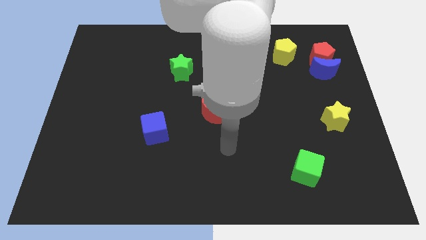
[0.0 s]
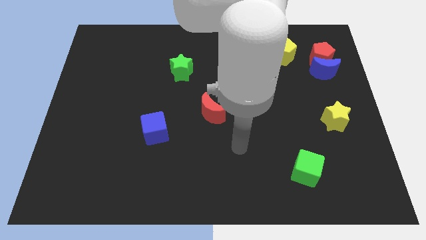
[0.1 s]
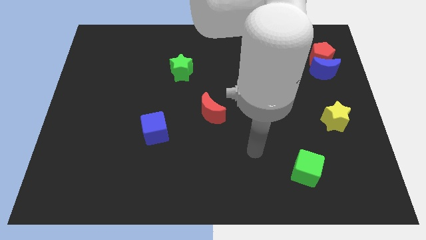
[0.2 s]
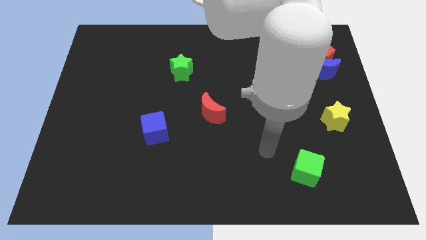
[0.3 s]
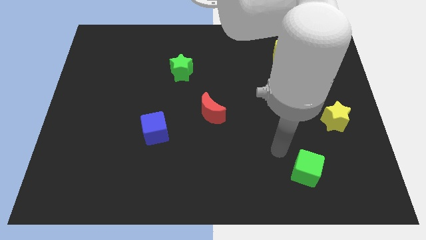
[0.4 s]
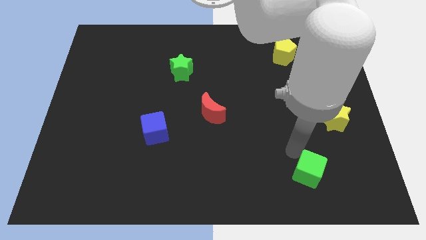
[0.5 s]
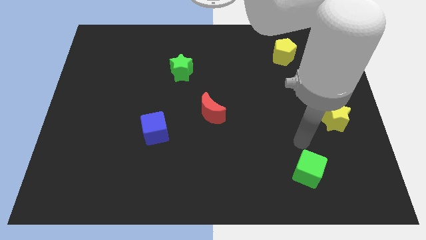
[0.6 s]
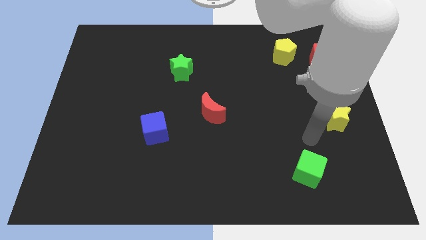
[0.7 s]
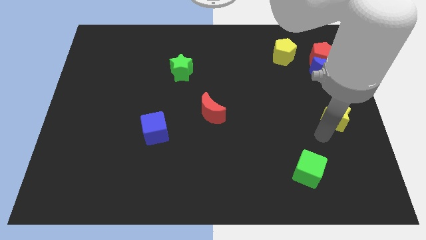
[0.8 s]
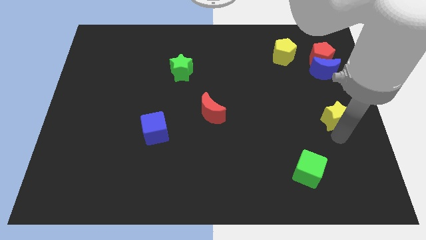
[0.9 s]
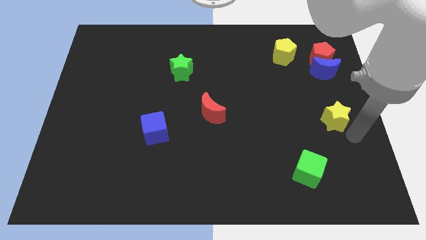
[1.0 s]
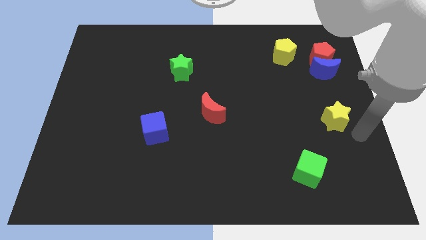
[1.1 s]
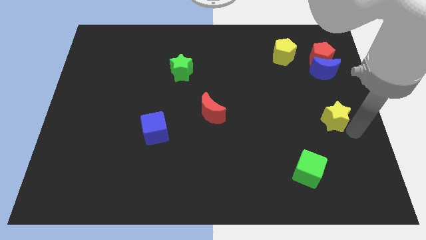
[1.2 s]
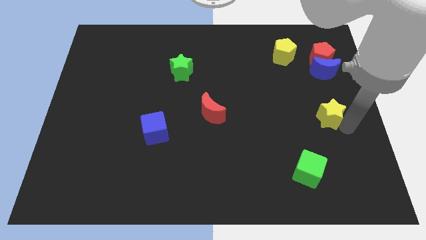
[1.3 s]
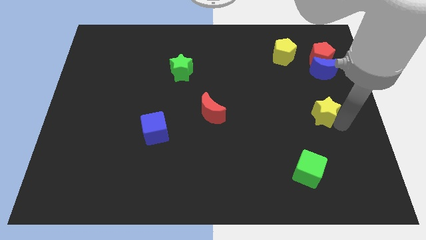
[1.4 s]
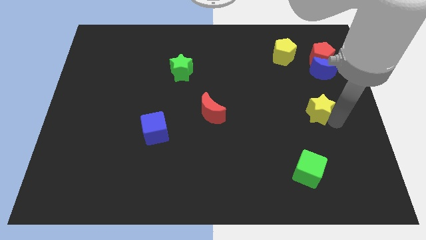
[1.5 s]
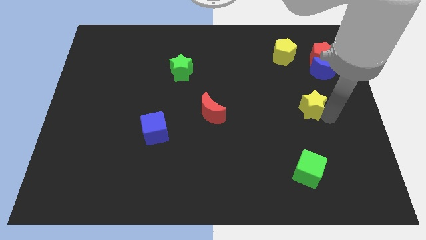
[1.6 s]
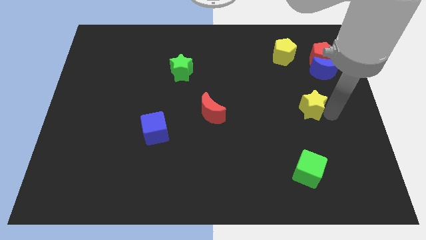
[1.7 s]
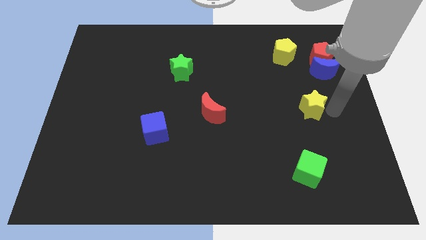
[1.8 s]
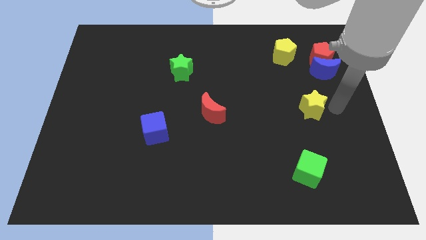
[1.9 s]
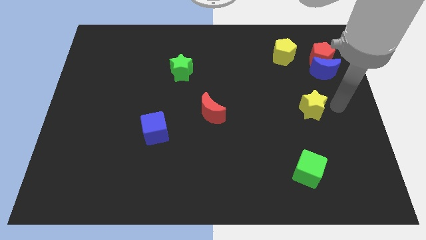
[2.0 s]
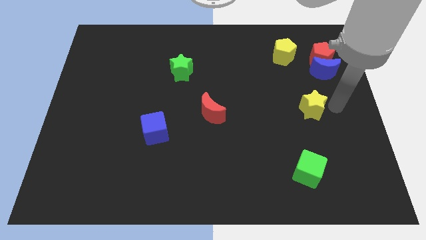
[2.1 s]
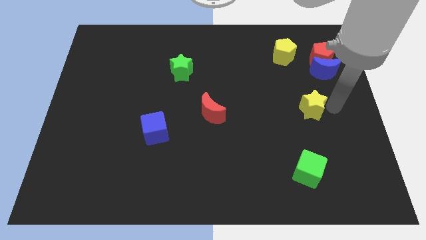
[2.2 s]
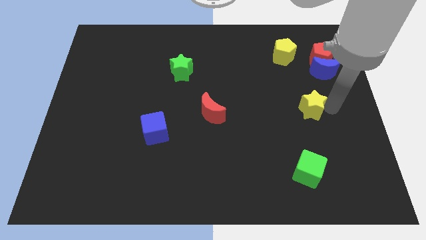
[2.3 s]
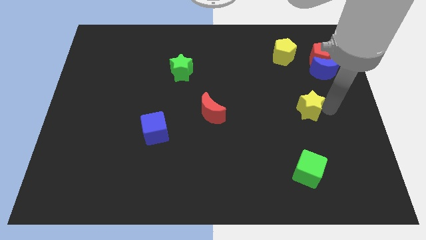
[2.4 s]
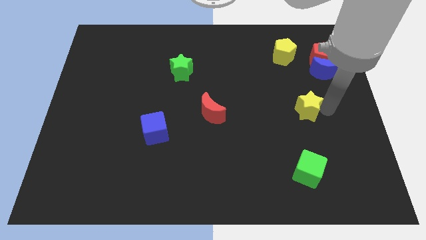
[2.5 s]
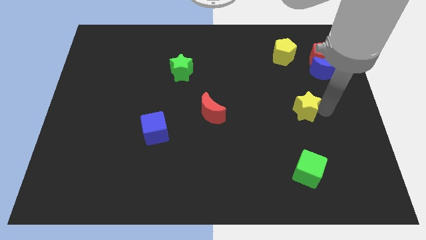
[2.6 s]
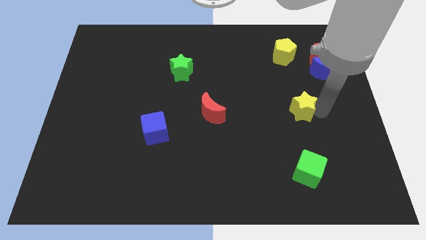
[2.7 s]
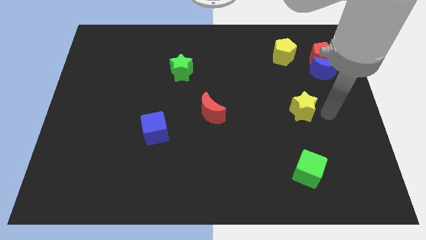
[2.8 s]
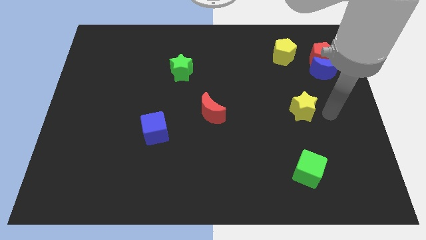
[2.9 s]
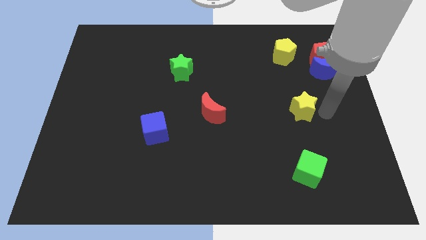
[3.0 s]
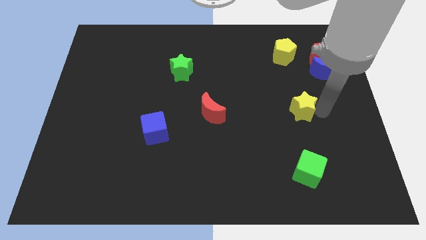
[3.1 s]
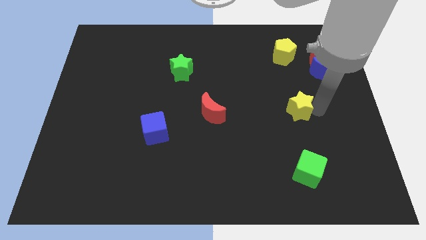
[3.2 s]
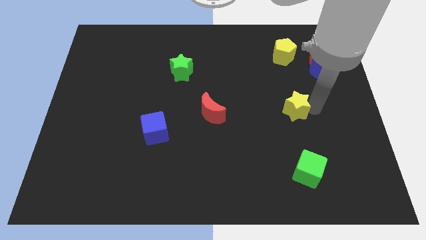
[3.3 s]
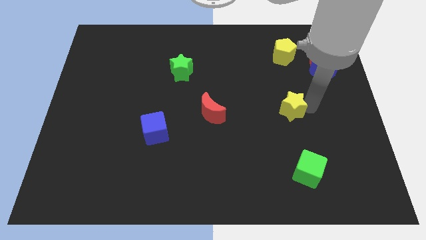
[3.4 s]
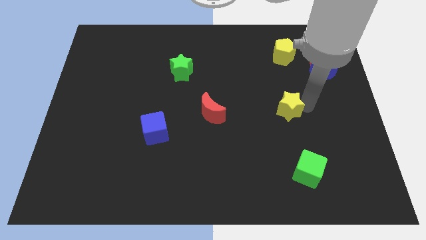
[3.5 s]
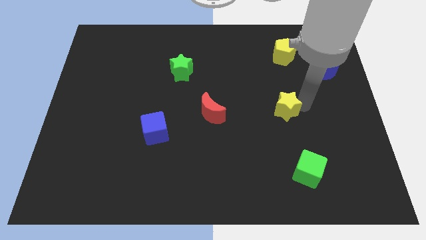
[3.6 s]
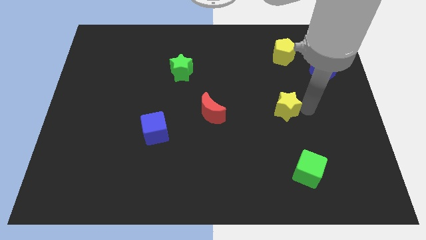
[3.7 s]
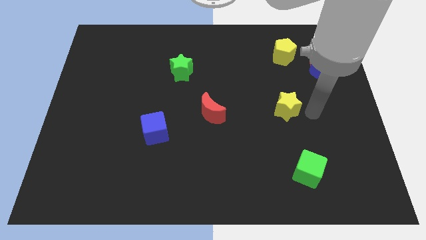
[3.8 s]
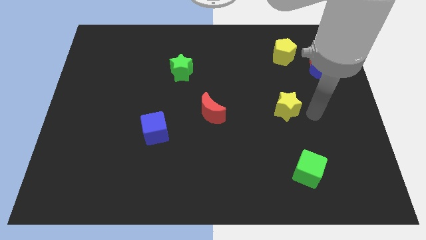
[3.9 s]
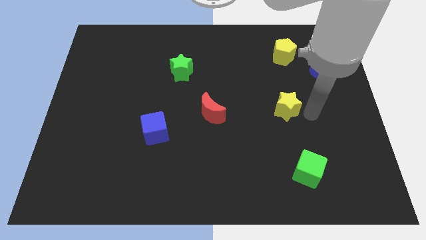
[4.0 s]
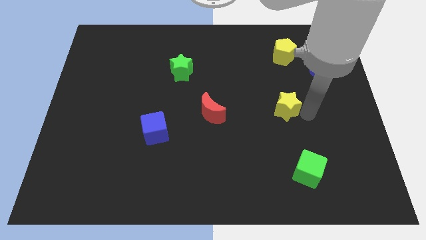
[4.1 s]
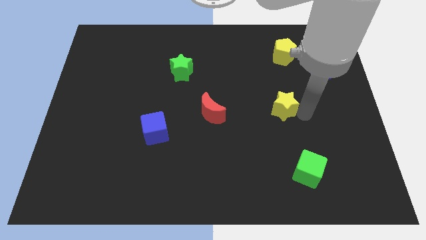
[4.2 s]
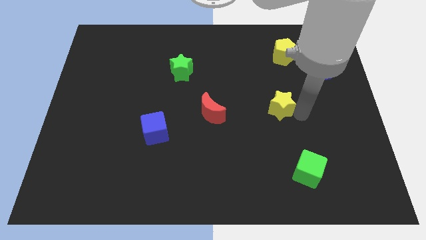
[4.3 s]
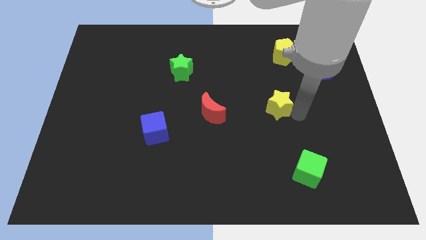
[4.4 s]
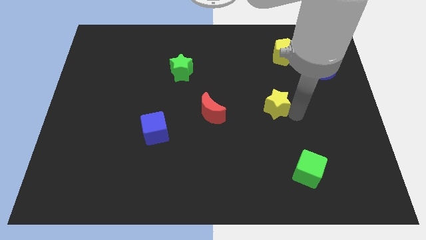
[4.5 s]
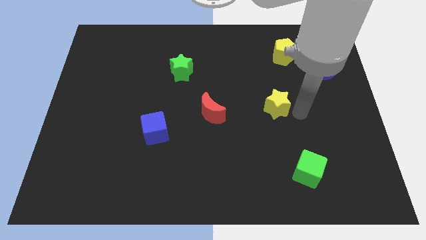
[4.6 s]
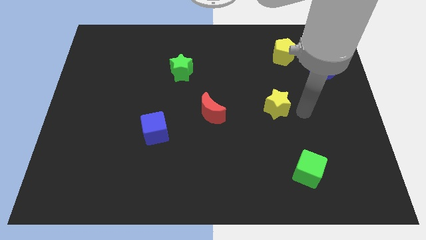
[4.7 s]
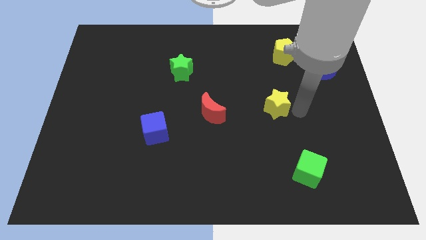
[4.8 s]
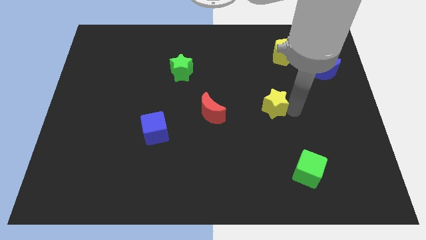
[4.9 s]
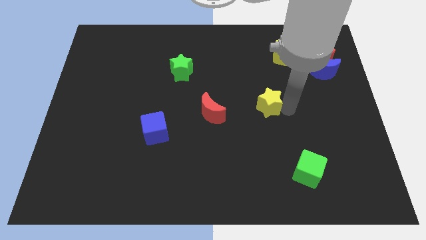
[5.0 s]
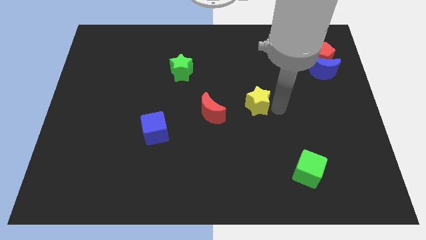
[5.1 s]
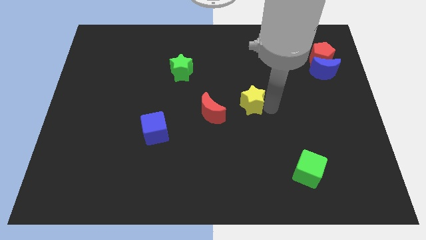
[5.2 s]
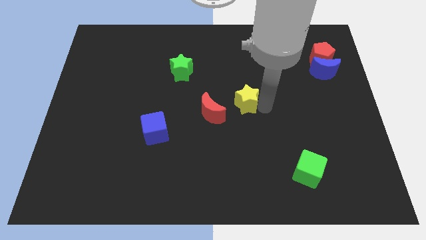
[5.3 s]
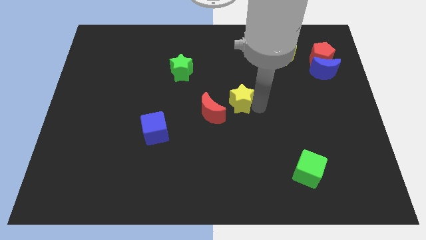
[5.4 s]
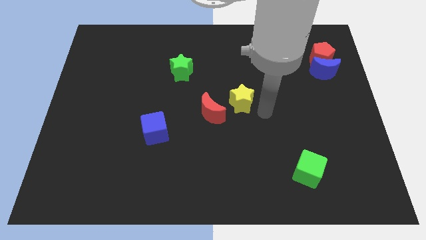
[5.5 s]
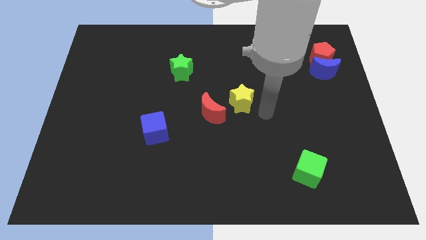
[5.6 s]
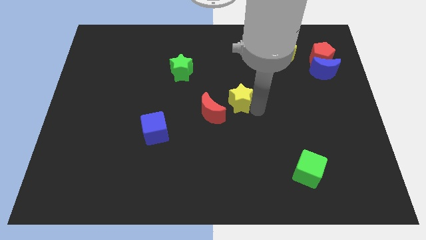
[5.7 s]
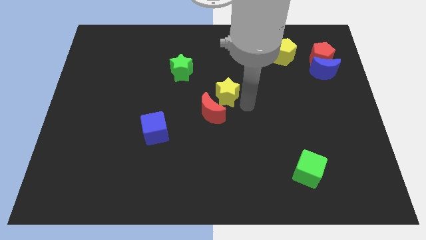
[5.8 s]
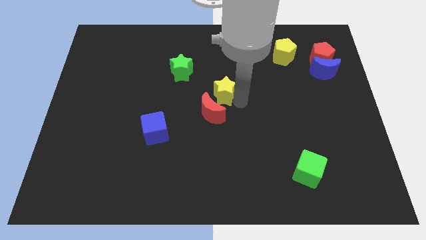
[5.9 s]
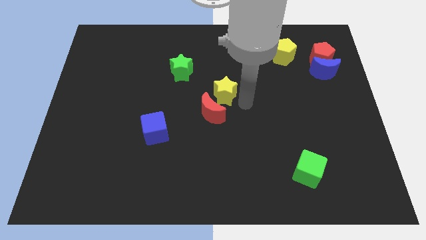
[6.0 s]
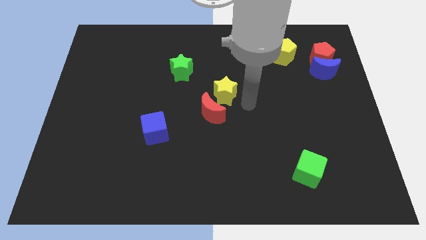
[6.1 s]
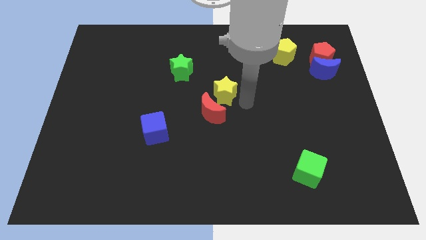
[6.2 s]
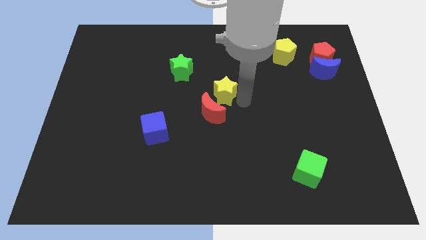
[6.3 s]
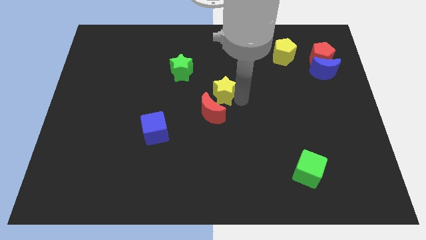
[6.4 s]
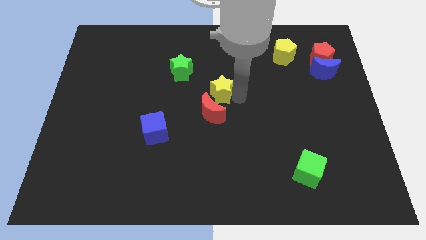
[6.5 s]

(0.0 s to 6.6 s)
push the yellow star diagonally down and to the right of the green star

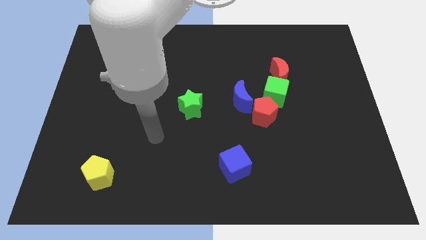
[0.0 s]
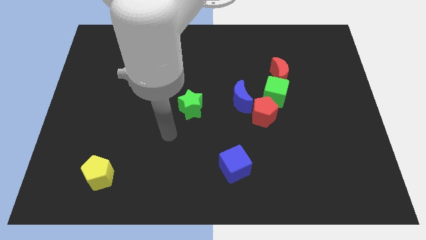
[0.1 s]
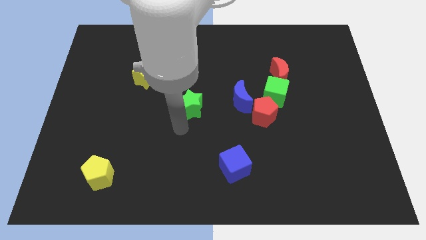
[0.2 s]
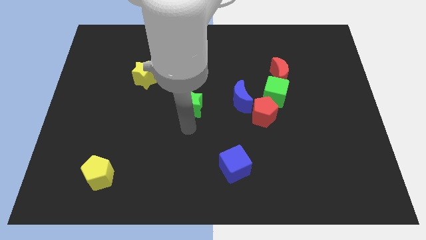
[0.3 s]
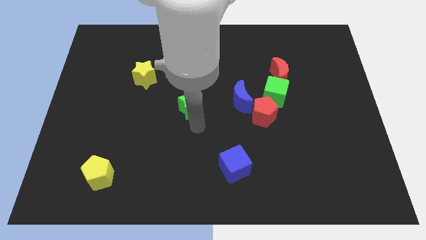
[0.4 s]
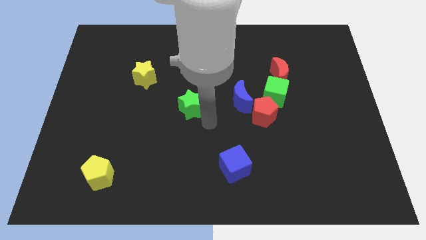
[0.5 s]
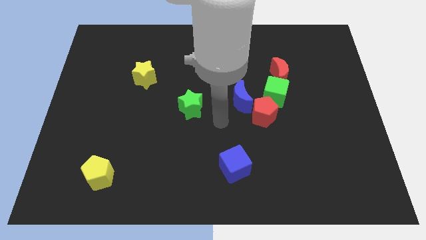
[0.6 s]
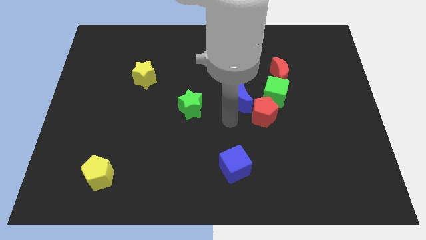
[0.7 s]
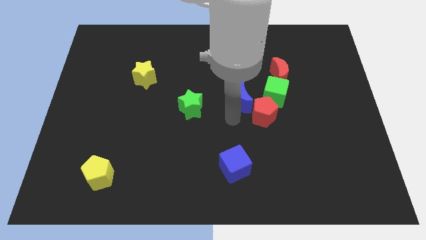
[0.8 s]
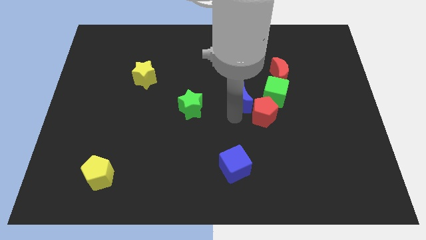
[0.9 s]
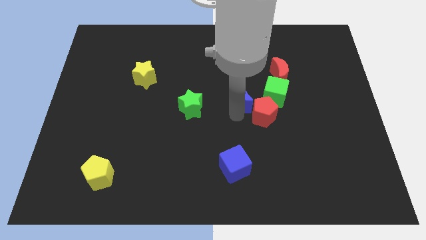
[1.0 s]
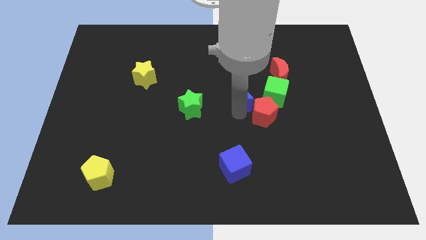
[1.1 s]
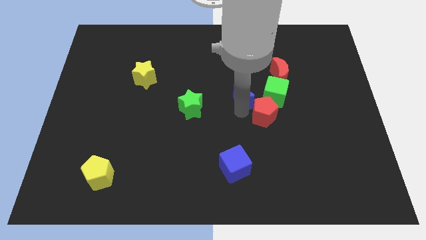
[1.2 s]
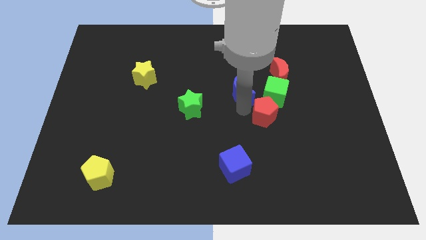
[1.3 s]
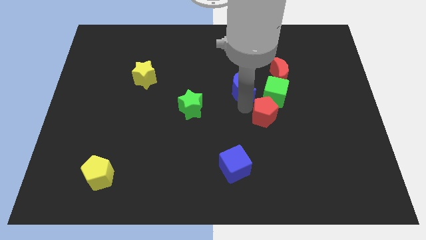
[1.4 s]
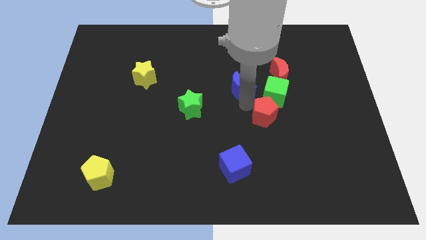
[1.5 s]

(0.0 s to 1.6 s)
put the blue moon diagonally up and to the left of the green cube
